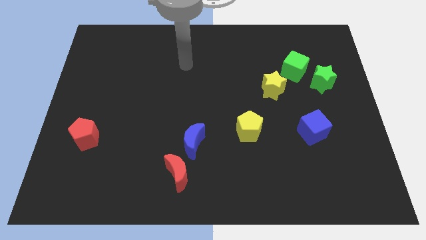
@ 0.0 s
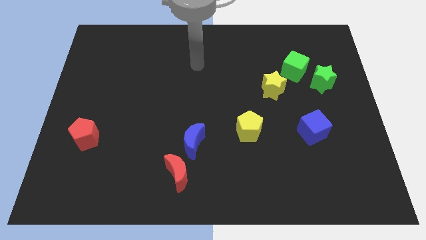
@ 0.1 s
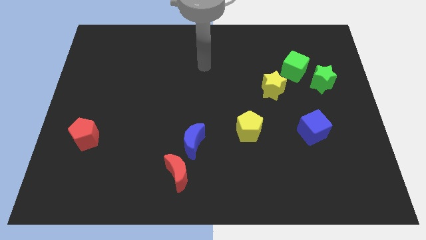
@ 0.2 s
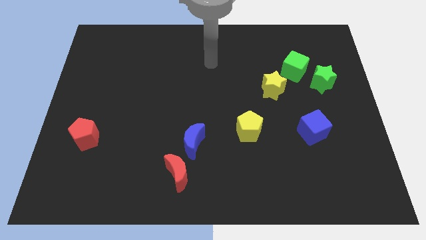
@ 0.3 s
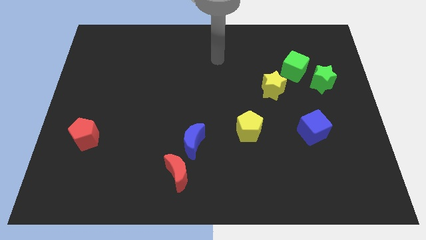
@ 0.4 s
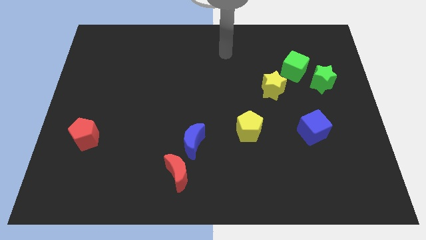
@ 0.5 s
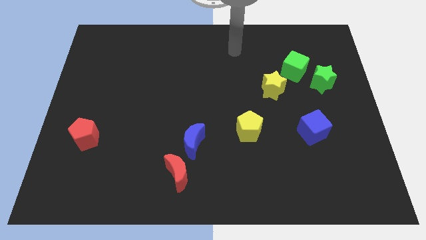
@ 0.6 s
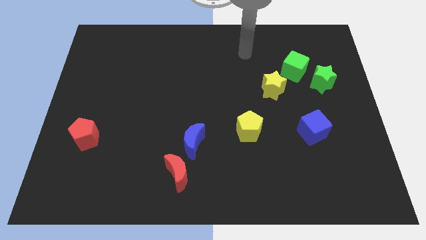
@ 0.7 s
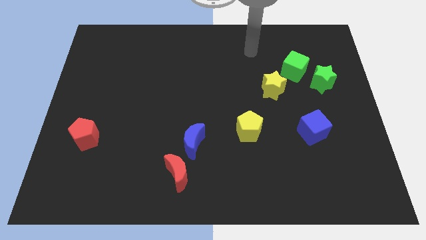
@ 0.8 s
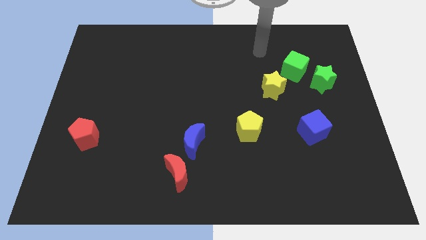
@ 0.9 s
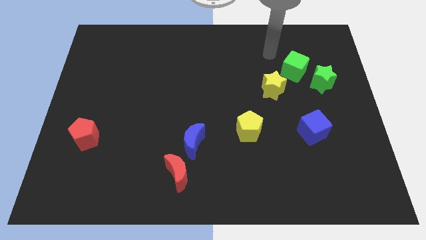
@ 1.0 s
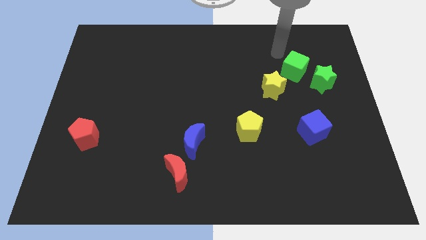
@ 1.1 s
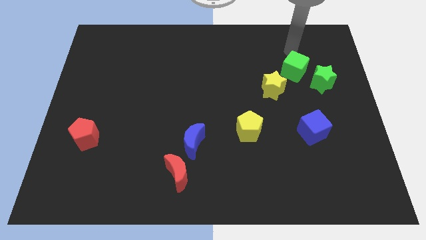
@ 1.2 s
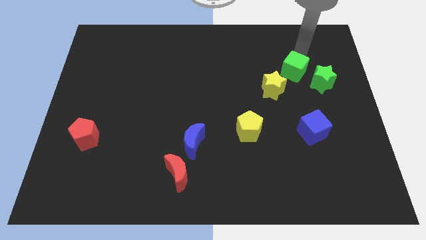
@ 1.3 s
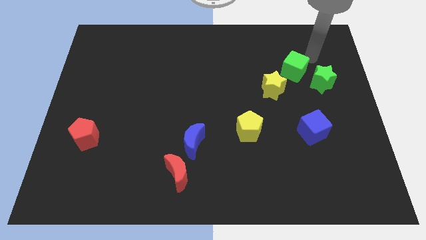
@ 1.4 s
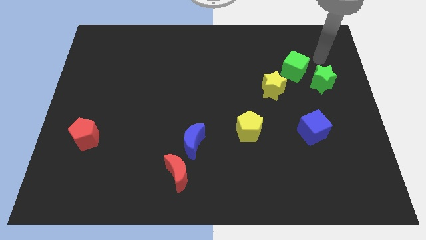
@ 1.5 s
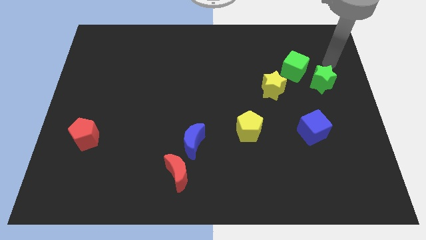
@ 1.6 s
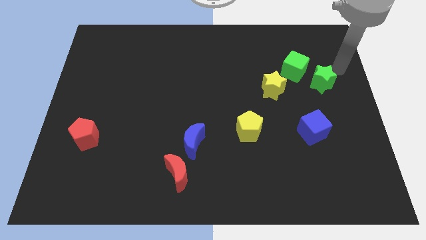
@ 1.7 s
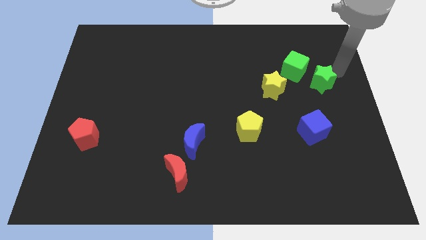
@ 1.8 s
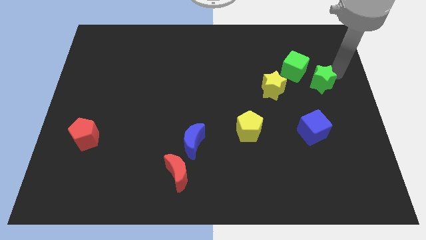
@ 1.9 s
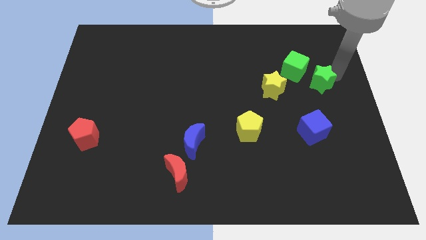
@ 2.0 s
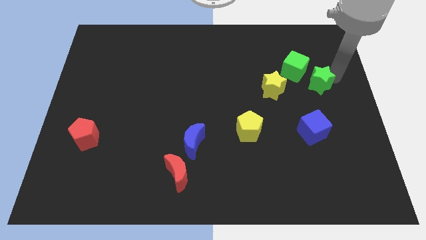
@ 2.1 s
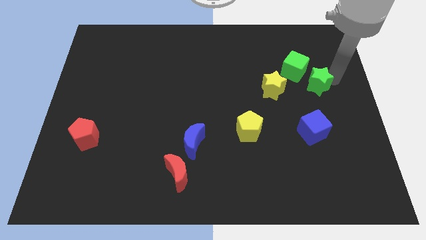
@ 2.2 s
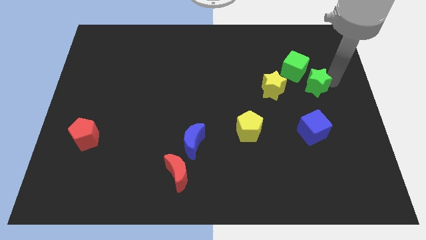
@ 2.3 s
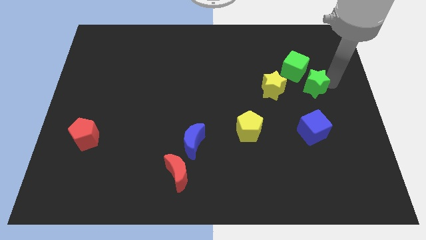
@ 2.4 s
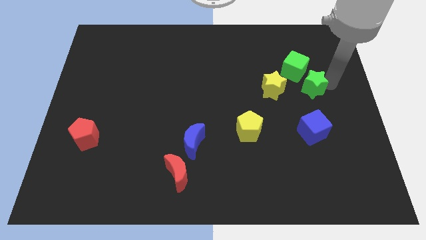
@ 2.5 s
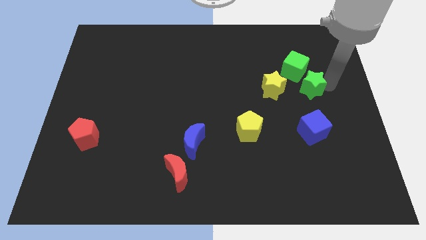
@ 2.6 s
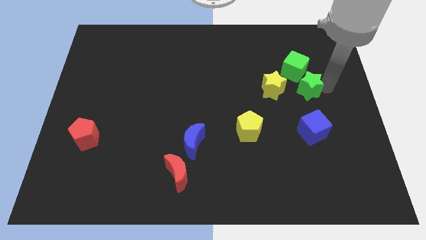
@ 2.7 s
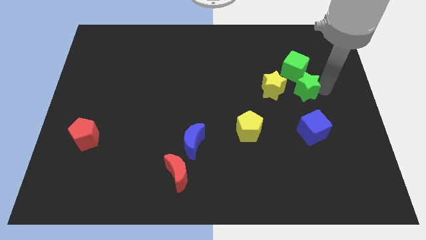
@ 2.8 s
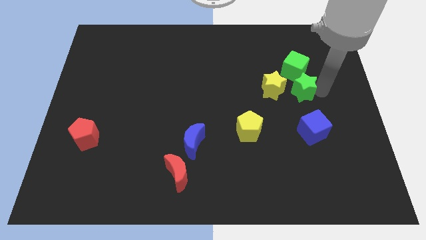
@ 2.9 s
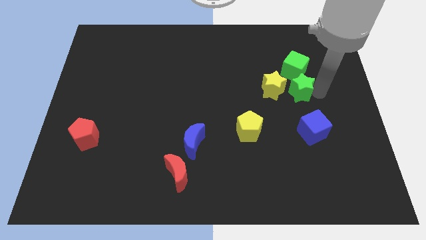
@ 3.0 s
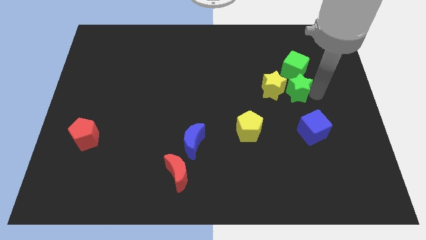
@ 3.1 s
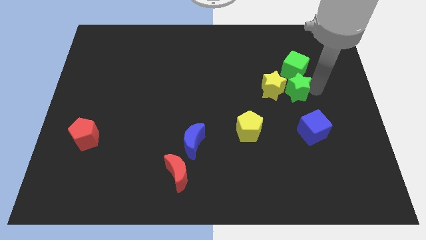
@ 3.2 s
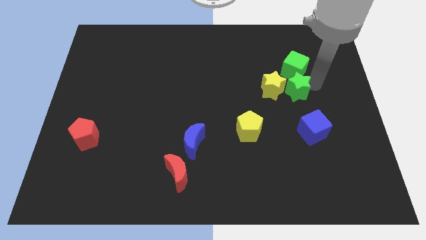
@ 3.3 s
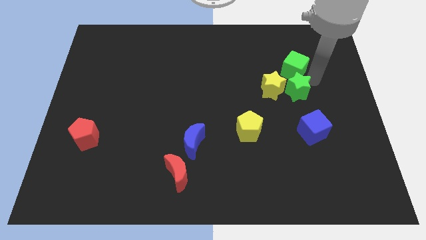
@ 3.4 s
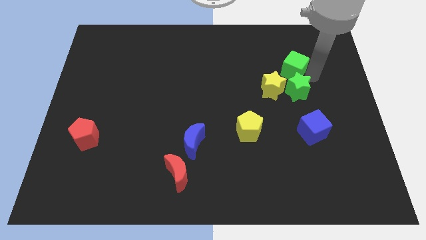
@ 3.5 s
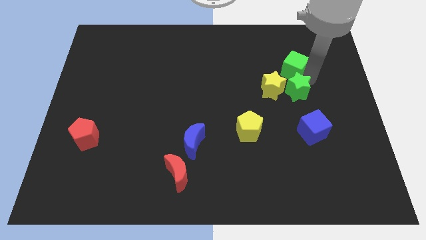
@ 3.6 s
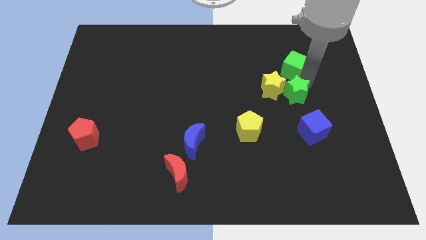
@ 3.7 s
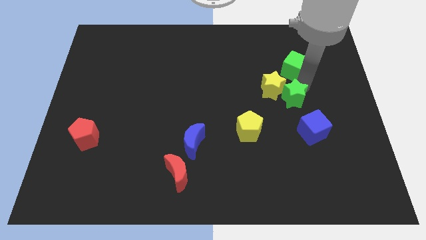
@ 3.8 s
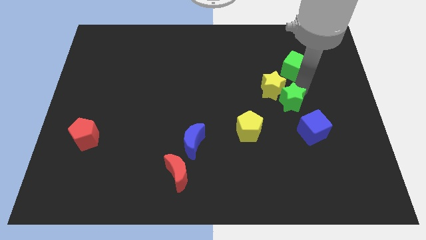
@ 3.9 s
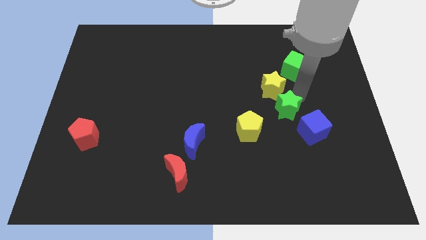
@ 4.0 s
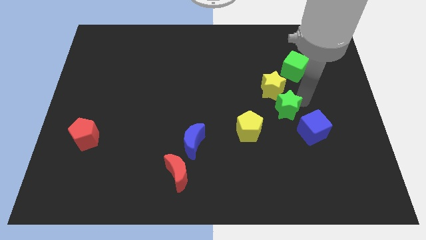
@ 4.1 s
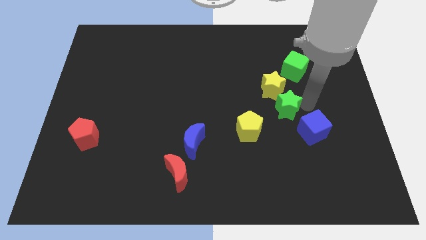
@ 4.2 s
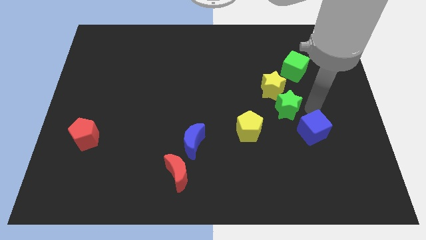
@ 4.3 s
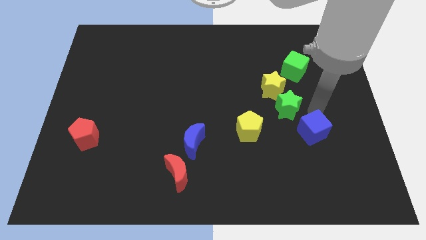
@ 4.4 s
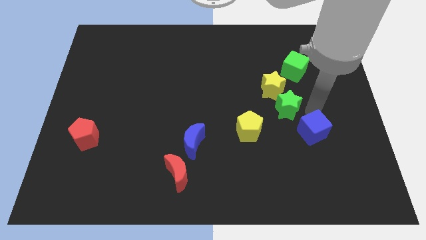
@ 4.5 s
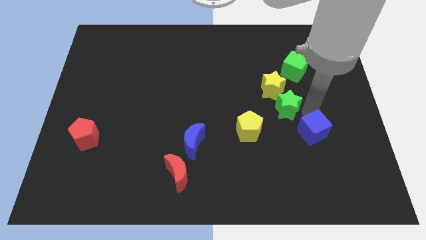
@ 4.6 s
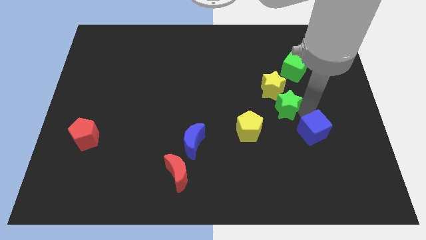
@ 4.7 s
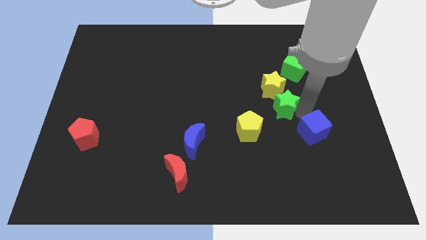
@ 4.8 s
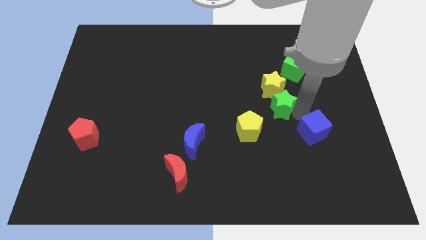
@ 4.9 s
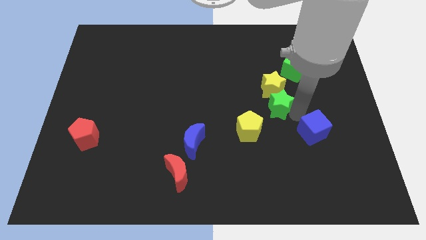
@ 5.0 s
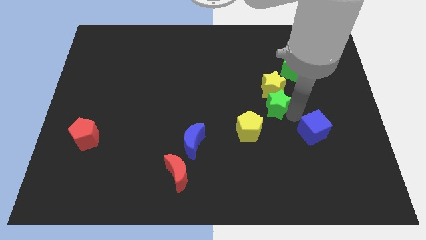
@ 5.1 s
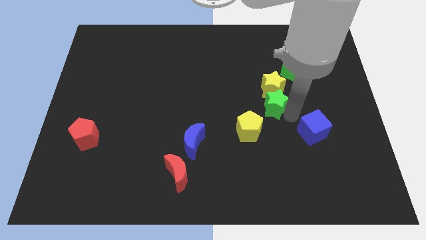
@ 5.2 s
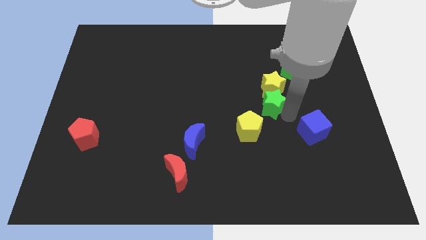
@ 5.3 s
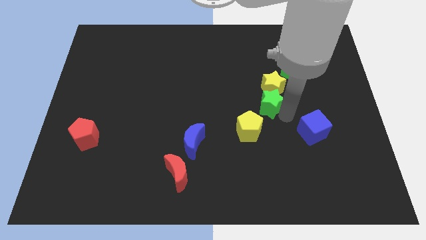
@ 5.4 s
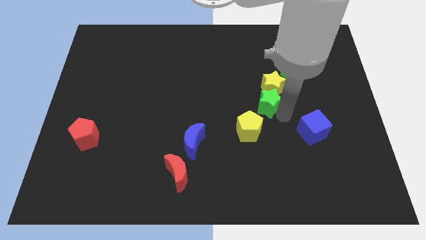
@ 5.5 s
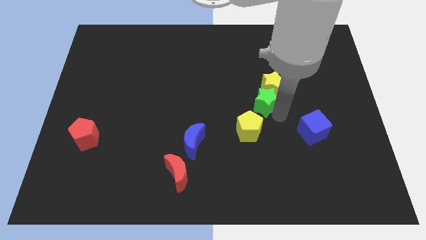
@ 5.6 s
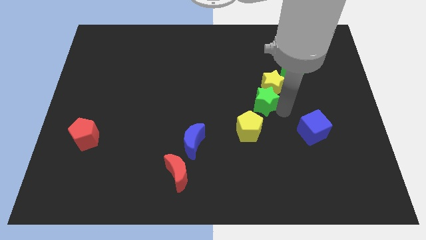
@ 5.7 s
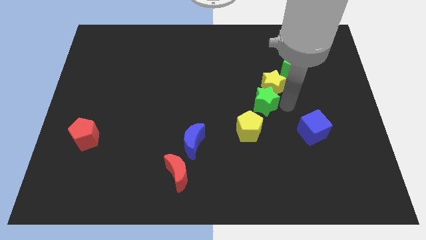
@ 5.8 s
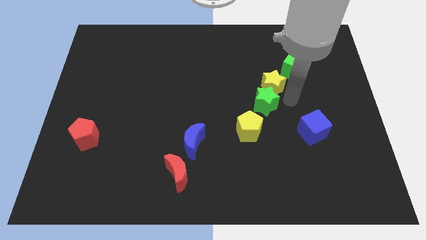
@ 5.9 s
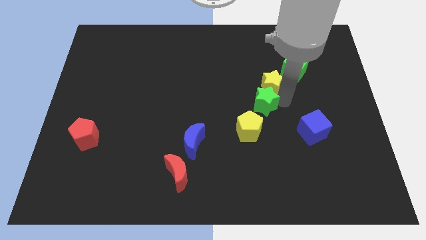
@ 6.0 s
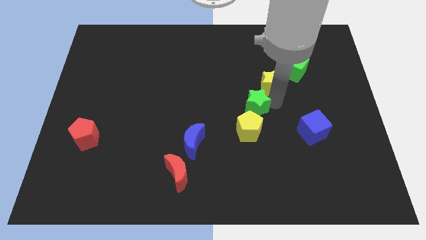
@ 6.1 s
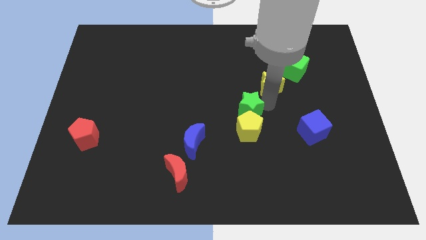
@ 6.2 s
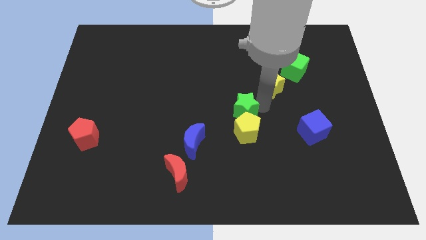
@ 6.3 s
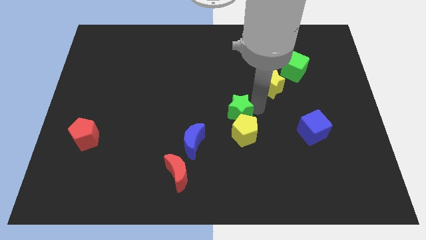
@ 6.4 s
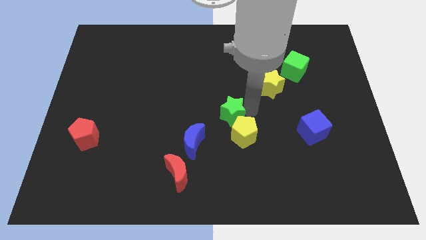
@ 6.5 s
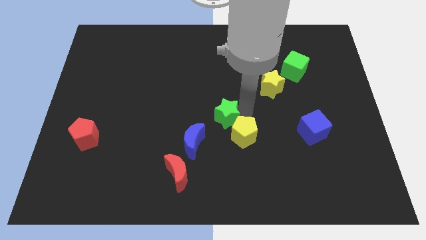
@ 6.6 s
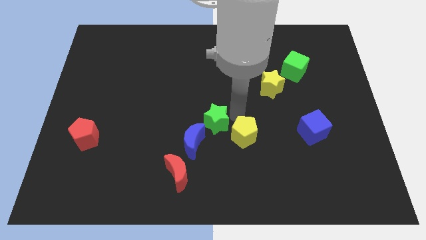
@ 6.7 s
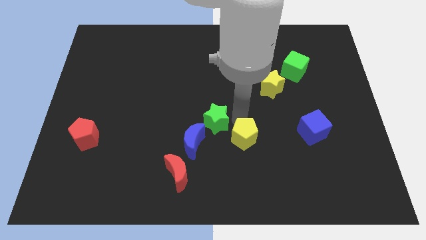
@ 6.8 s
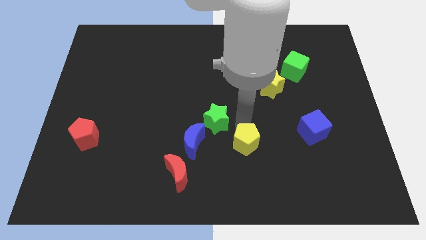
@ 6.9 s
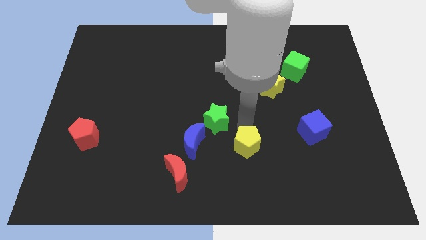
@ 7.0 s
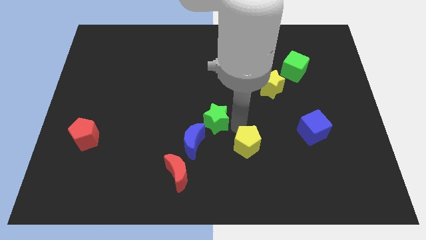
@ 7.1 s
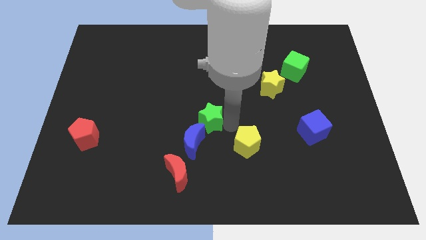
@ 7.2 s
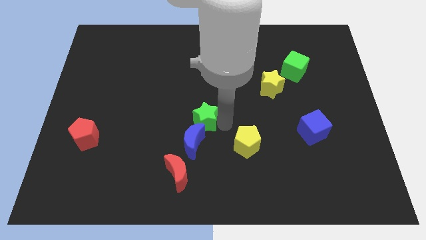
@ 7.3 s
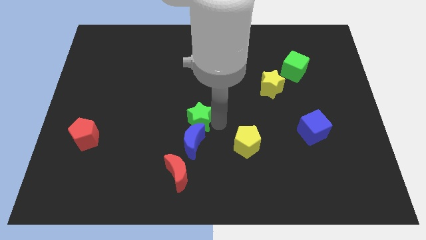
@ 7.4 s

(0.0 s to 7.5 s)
slide the green star diagonally up and to the left of the blue moon
